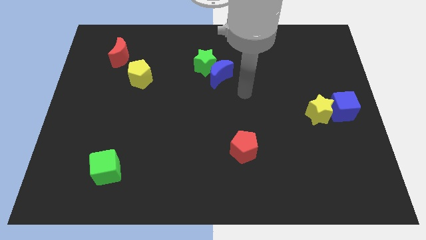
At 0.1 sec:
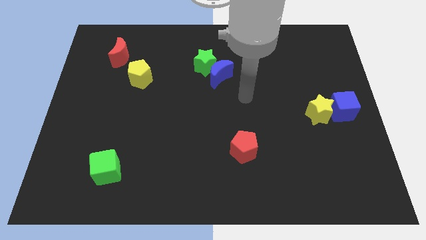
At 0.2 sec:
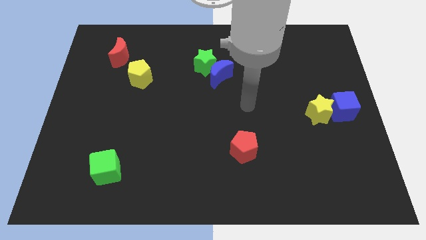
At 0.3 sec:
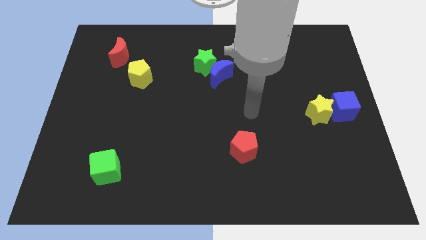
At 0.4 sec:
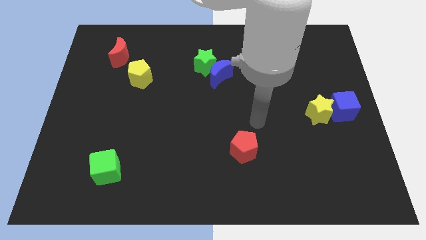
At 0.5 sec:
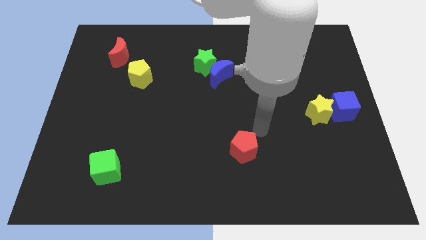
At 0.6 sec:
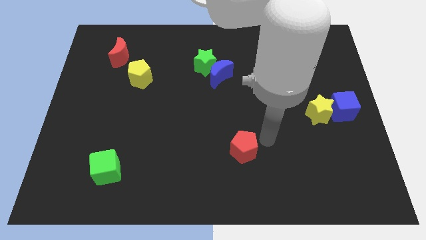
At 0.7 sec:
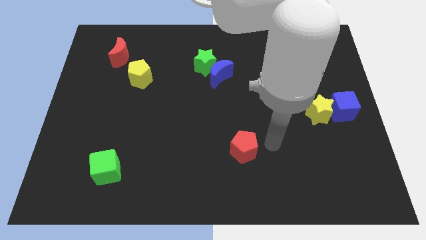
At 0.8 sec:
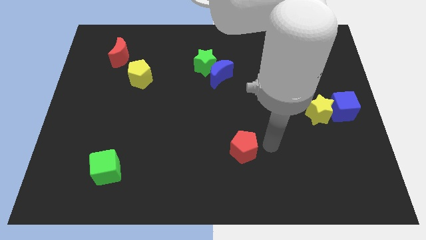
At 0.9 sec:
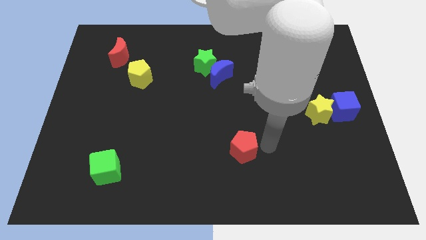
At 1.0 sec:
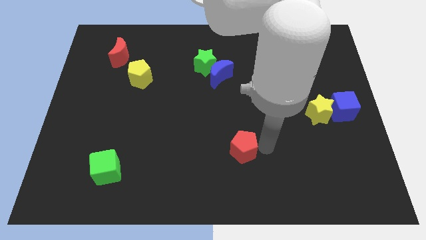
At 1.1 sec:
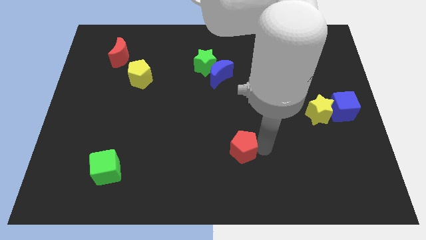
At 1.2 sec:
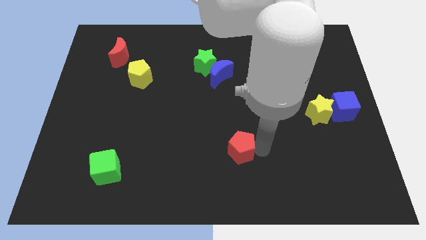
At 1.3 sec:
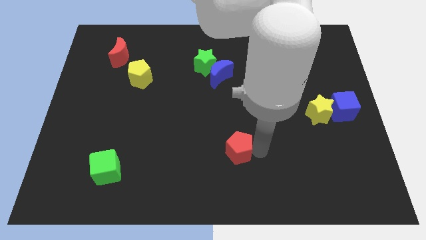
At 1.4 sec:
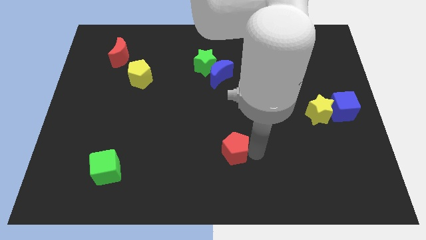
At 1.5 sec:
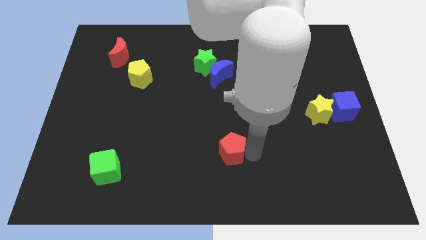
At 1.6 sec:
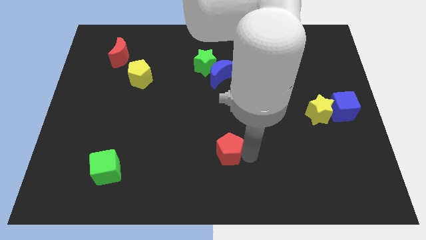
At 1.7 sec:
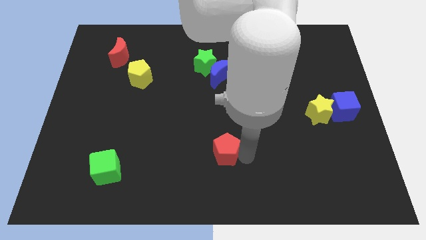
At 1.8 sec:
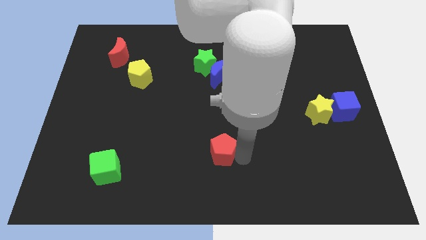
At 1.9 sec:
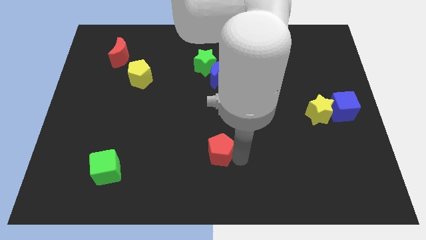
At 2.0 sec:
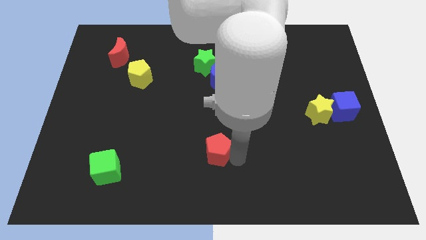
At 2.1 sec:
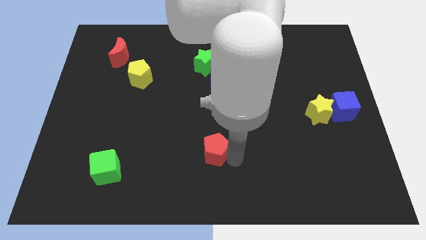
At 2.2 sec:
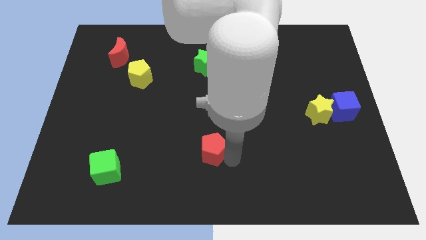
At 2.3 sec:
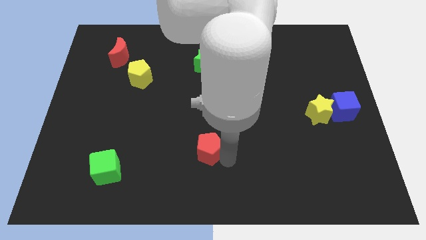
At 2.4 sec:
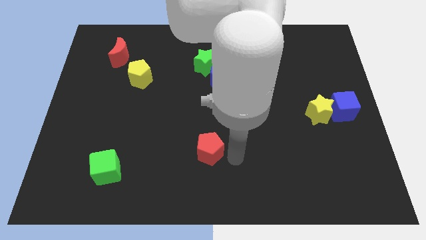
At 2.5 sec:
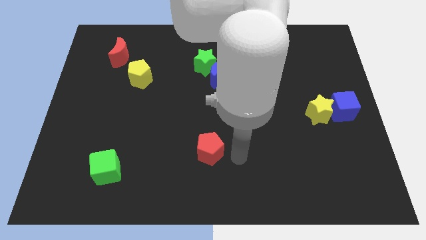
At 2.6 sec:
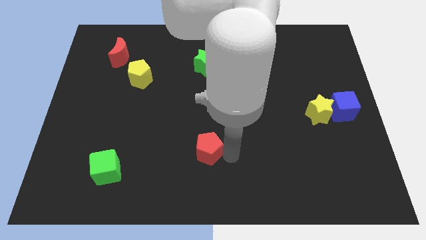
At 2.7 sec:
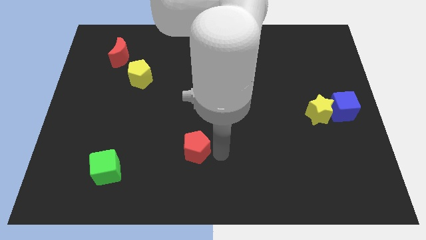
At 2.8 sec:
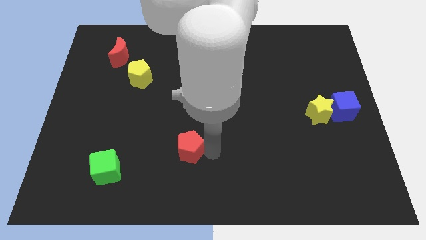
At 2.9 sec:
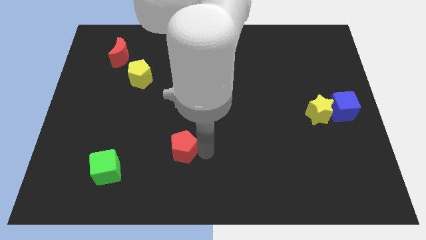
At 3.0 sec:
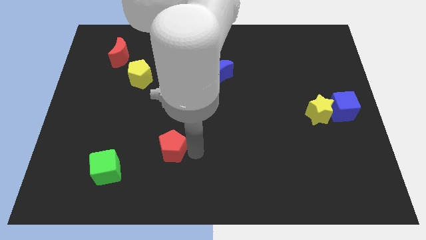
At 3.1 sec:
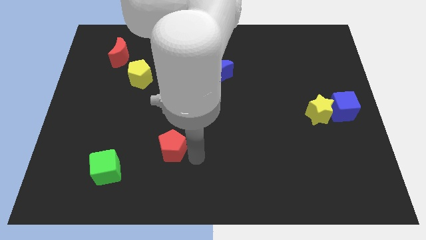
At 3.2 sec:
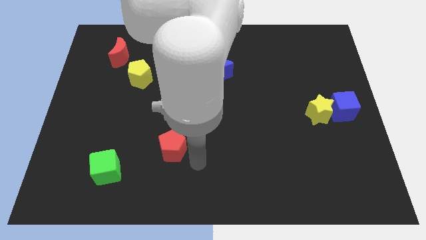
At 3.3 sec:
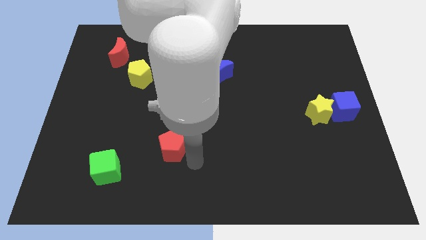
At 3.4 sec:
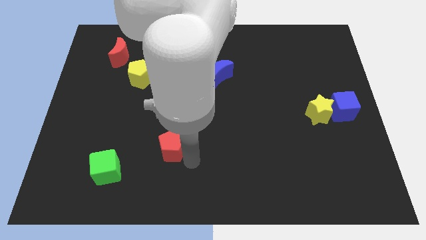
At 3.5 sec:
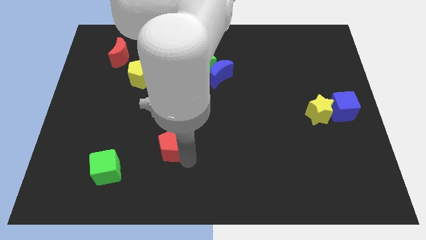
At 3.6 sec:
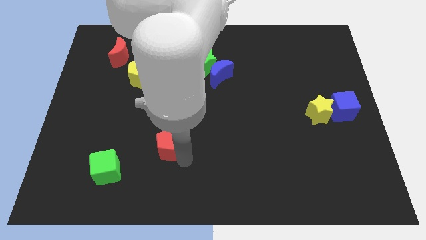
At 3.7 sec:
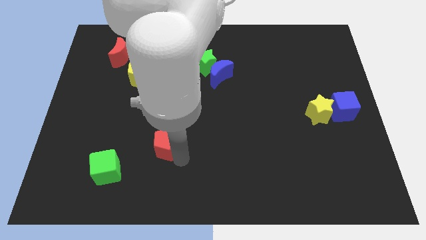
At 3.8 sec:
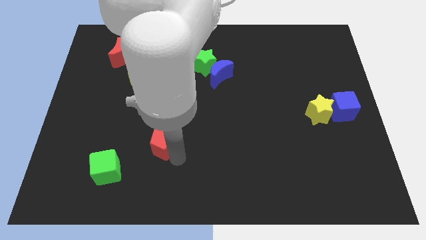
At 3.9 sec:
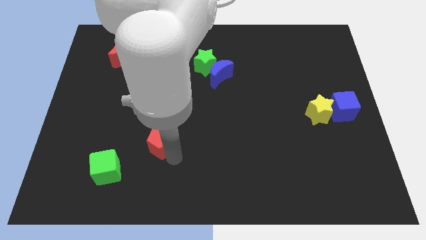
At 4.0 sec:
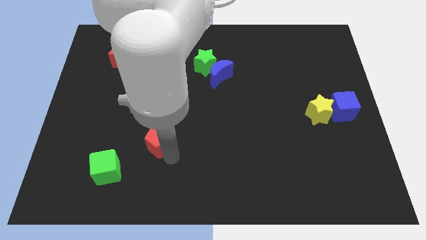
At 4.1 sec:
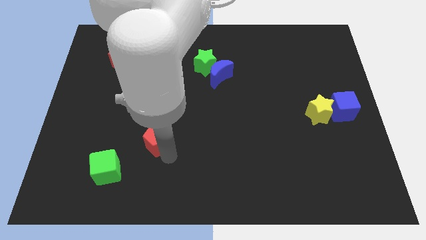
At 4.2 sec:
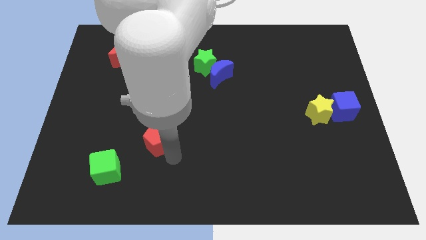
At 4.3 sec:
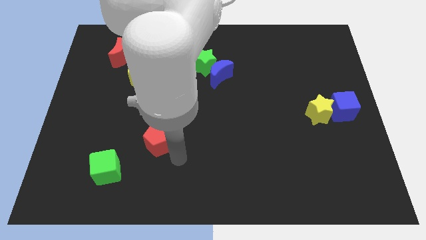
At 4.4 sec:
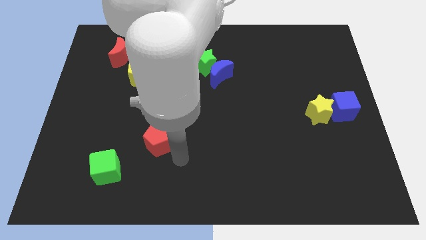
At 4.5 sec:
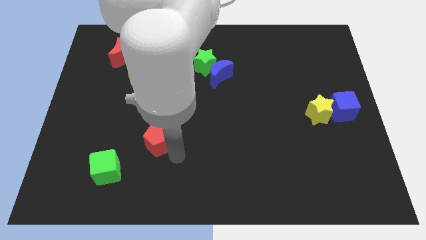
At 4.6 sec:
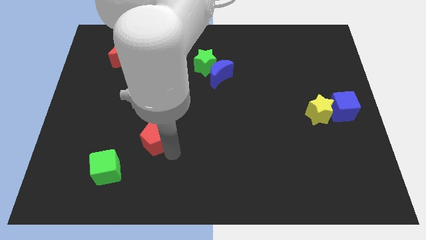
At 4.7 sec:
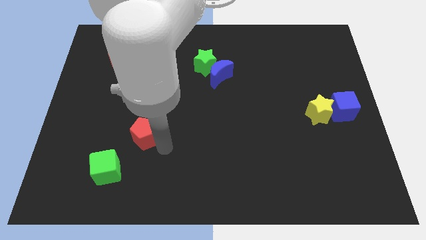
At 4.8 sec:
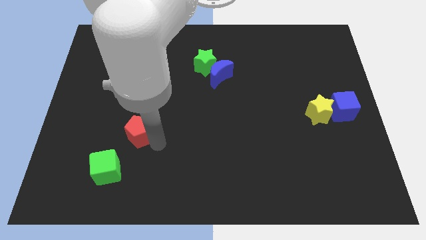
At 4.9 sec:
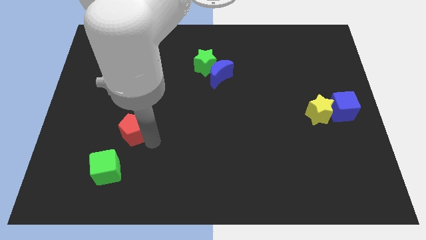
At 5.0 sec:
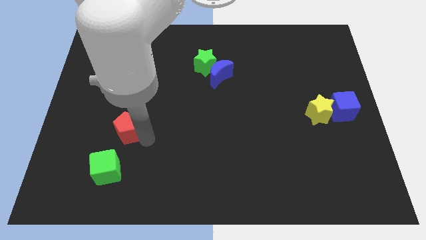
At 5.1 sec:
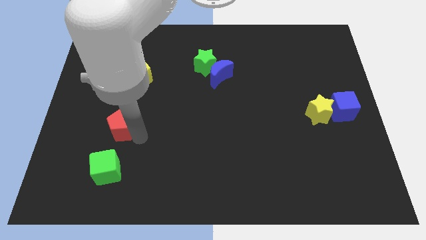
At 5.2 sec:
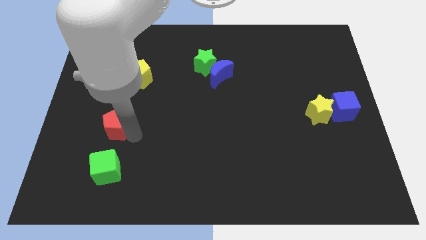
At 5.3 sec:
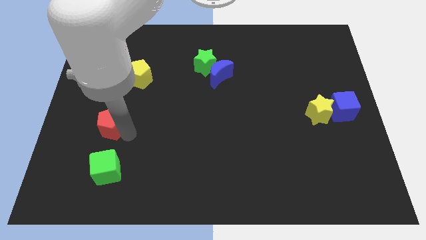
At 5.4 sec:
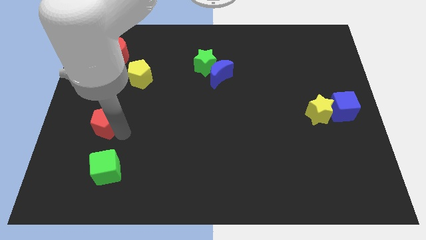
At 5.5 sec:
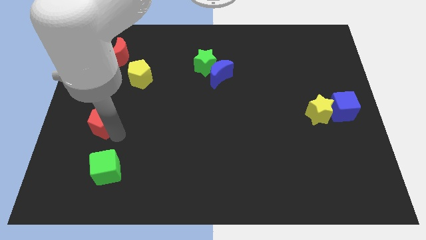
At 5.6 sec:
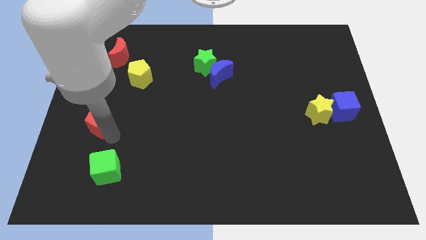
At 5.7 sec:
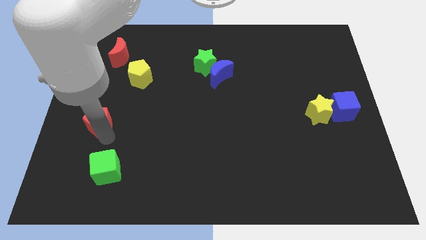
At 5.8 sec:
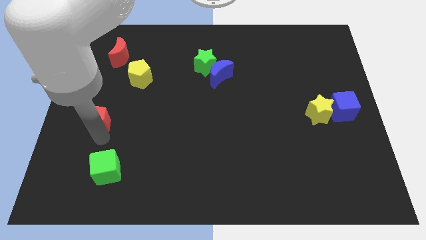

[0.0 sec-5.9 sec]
put the red pentagon to the left side
